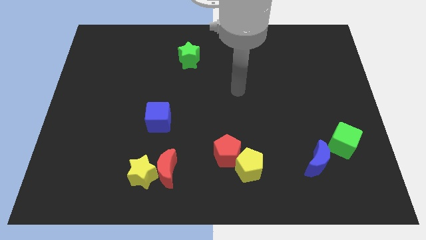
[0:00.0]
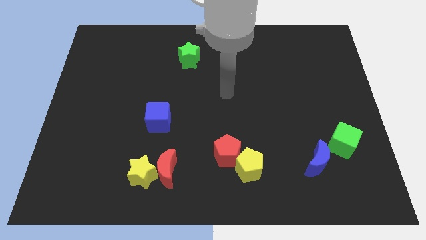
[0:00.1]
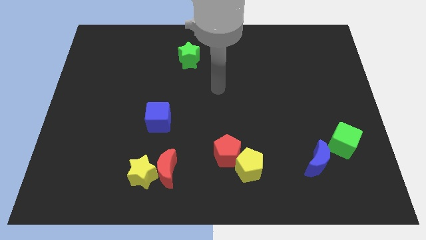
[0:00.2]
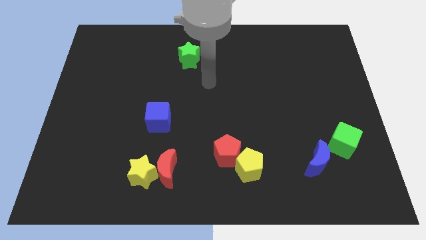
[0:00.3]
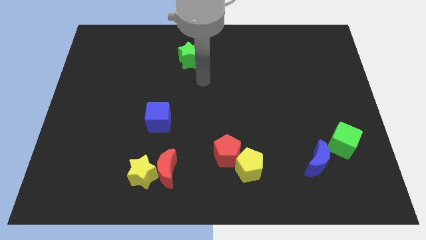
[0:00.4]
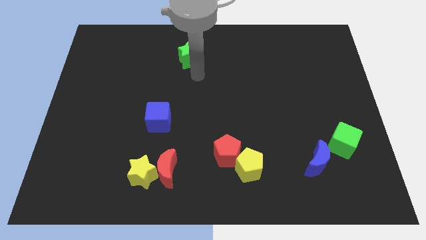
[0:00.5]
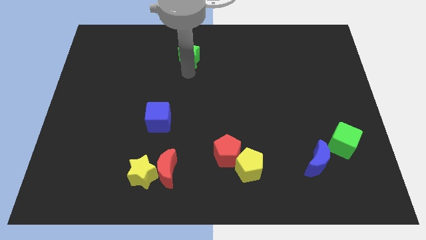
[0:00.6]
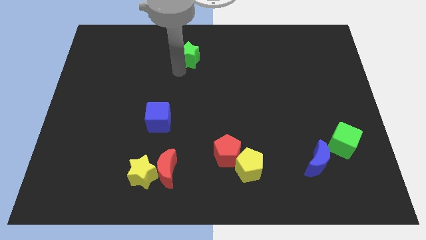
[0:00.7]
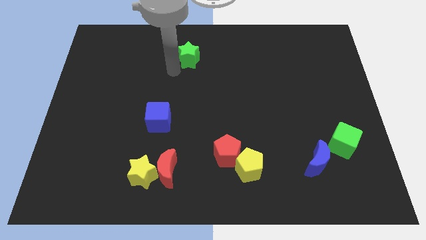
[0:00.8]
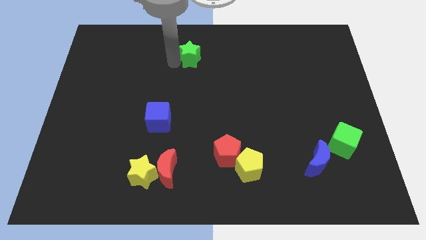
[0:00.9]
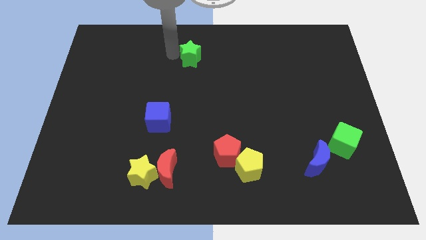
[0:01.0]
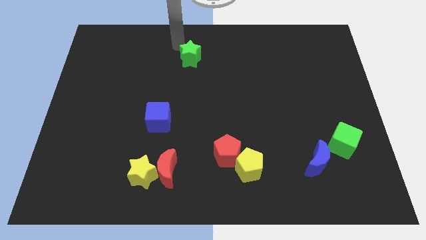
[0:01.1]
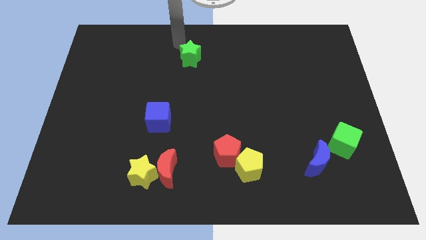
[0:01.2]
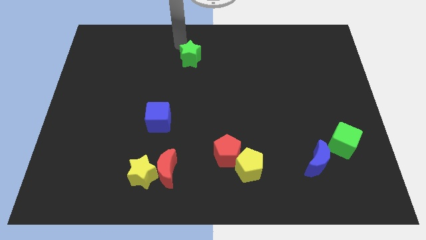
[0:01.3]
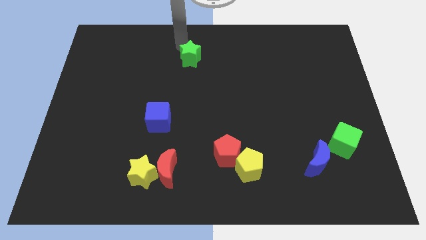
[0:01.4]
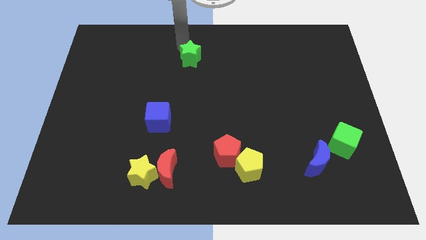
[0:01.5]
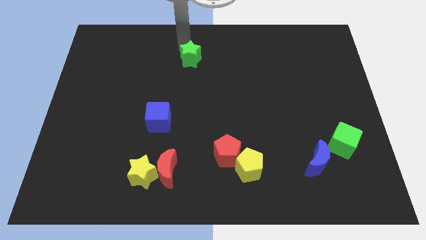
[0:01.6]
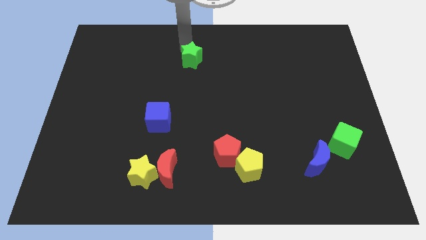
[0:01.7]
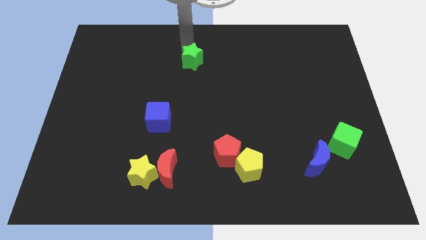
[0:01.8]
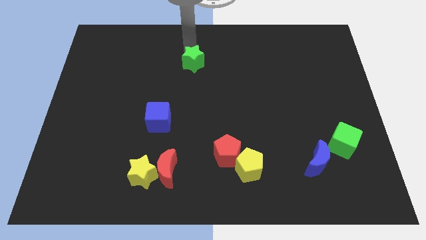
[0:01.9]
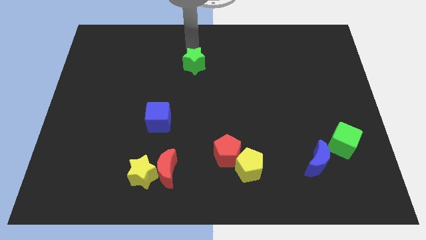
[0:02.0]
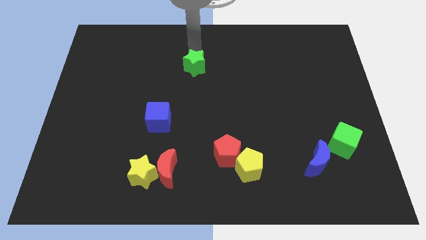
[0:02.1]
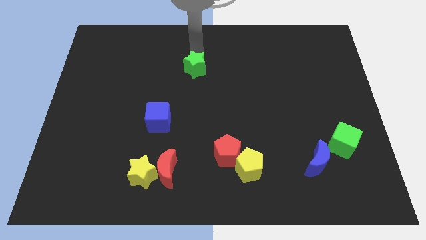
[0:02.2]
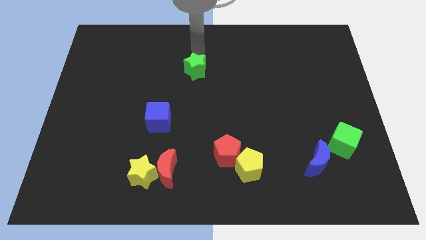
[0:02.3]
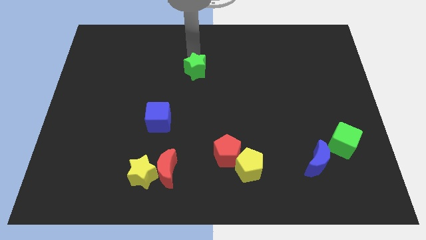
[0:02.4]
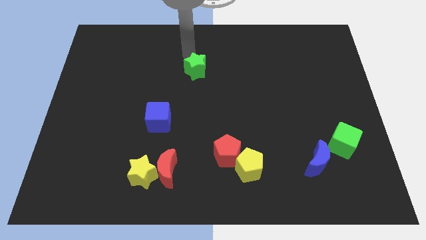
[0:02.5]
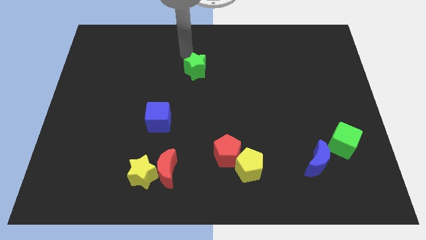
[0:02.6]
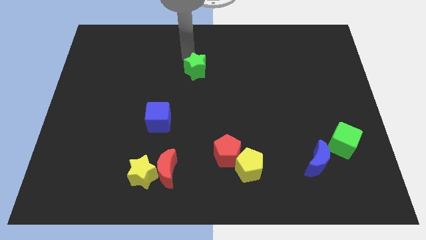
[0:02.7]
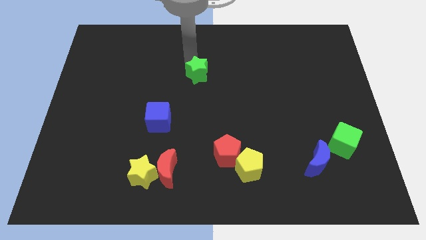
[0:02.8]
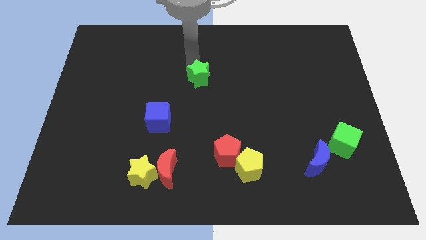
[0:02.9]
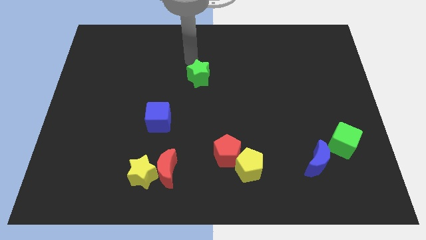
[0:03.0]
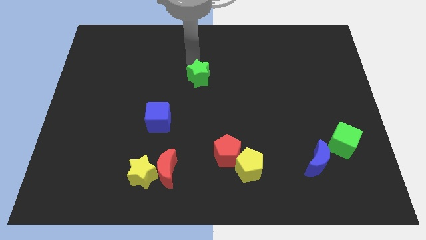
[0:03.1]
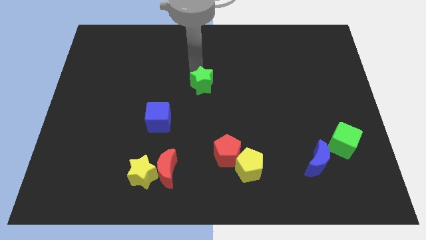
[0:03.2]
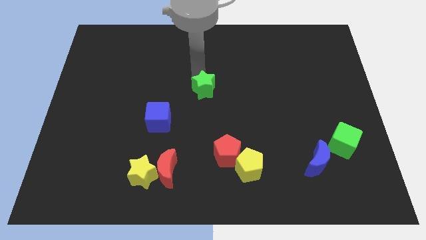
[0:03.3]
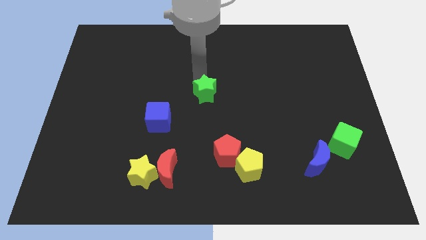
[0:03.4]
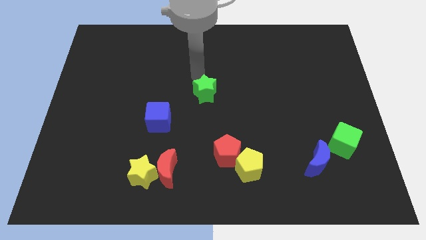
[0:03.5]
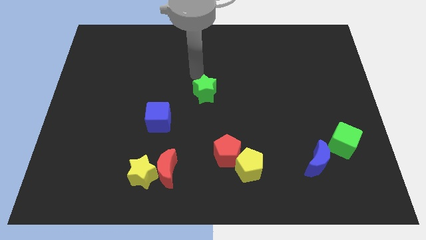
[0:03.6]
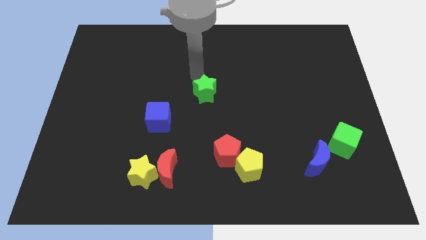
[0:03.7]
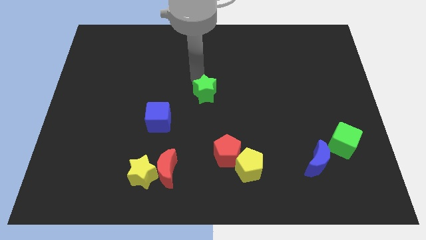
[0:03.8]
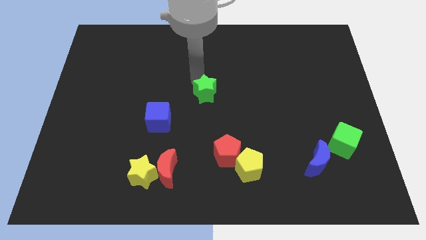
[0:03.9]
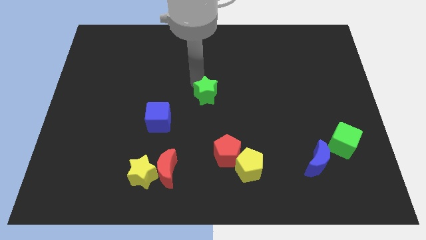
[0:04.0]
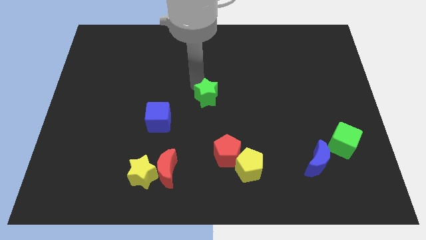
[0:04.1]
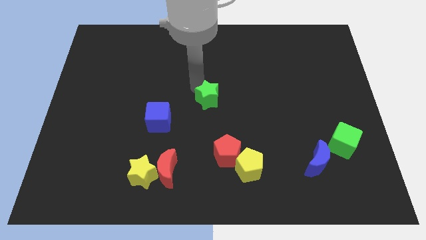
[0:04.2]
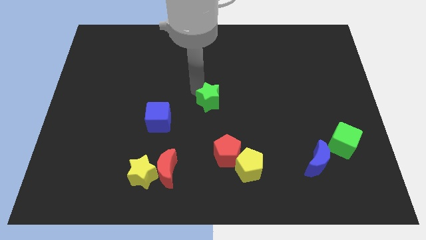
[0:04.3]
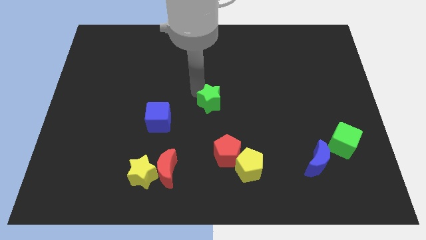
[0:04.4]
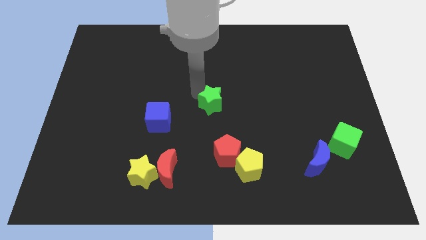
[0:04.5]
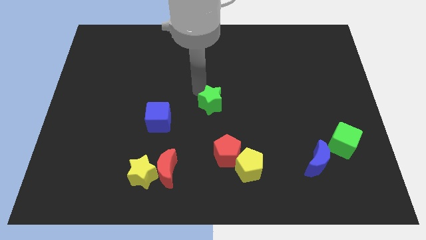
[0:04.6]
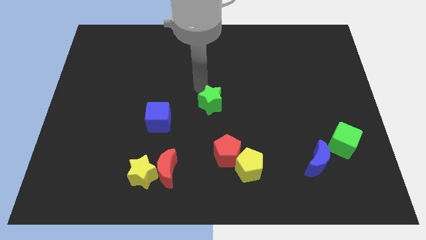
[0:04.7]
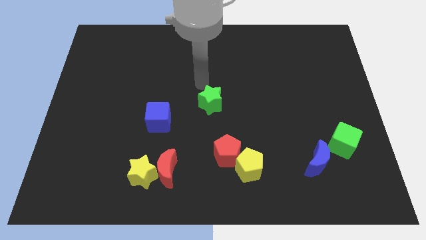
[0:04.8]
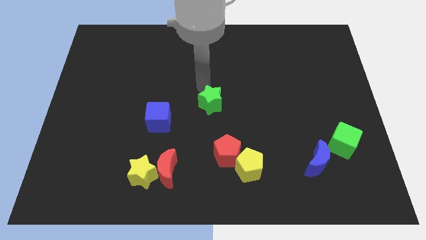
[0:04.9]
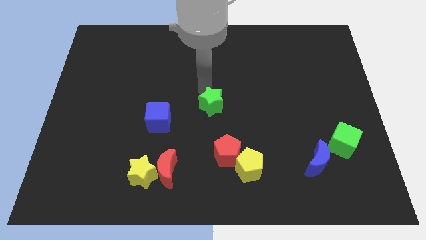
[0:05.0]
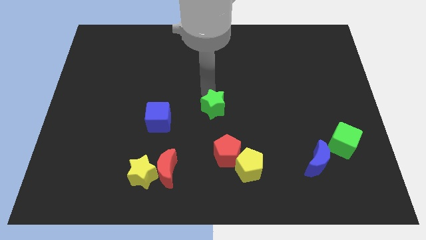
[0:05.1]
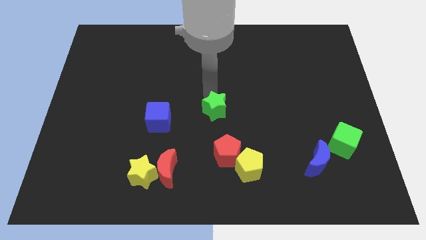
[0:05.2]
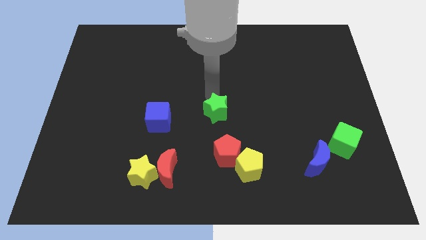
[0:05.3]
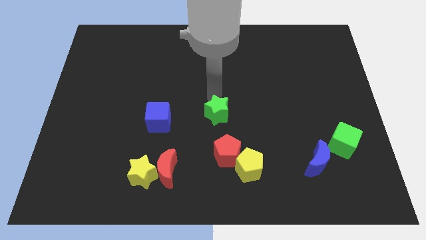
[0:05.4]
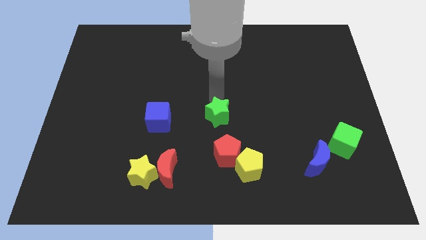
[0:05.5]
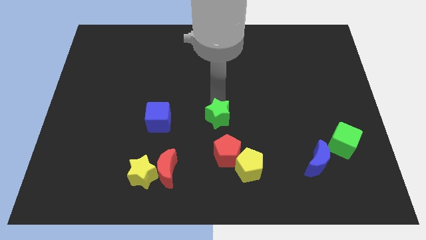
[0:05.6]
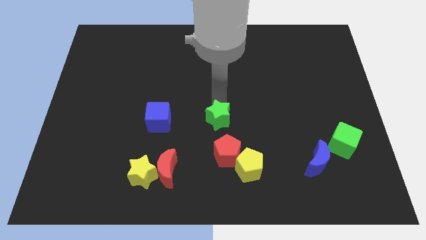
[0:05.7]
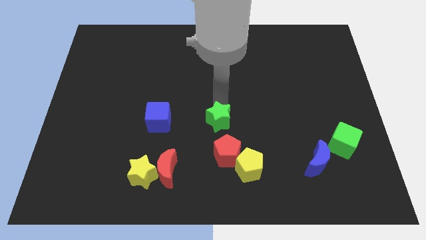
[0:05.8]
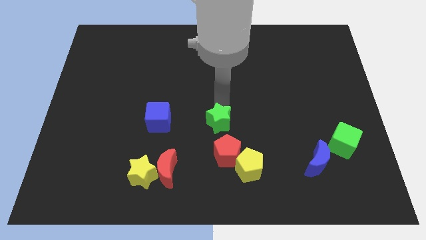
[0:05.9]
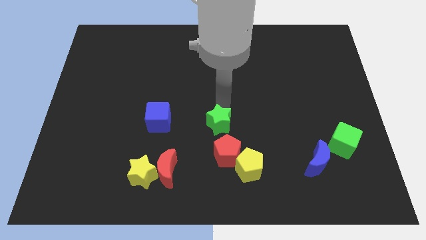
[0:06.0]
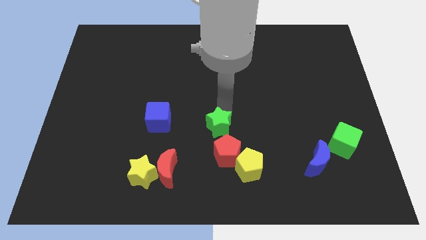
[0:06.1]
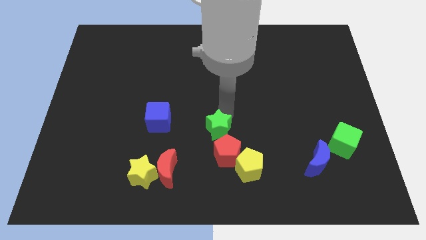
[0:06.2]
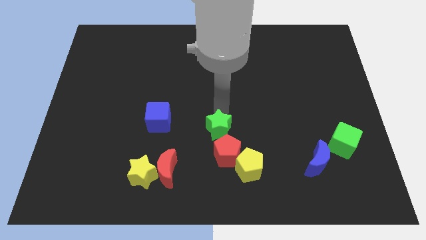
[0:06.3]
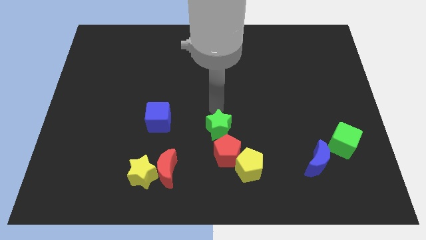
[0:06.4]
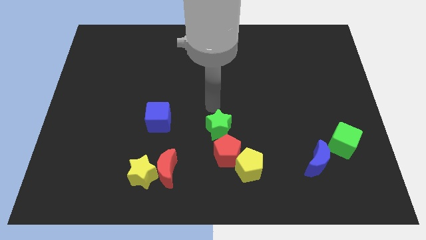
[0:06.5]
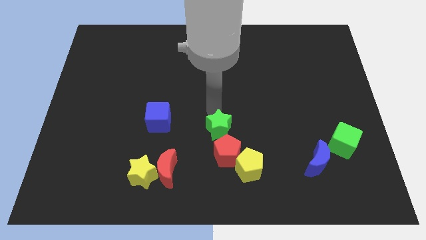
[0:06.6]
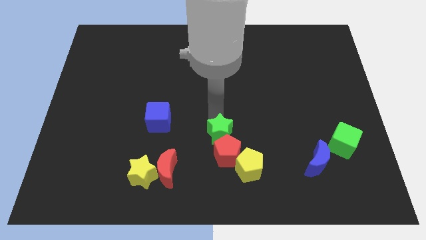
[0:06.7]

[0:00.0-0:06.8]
push the green star close to the red pentagon

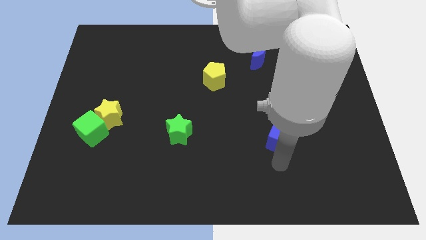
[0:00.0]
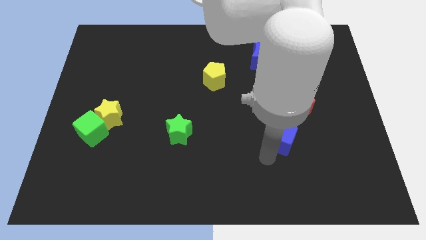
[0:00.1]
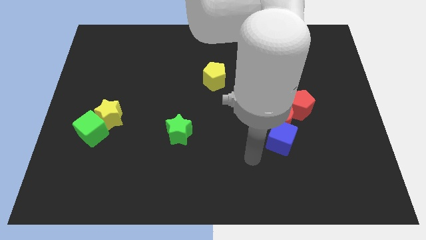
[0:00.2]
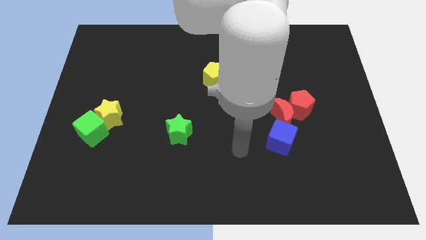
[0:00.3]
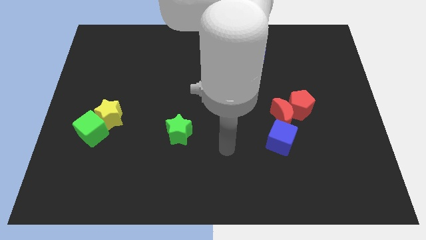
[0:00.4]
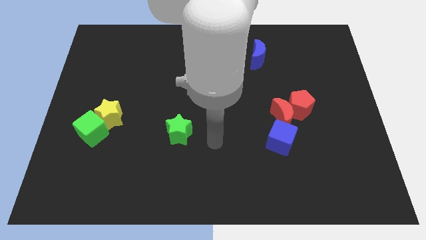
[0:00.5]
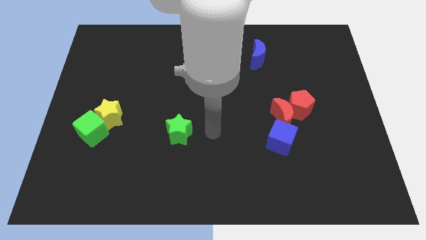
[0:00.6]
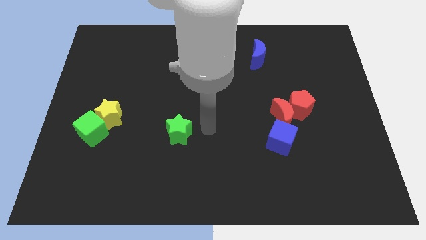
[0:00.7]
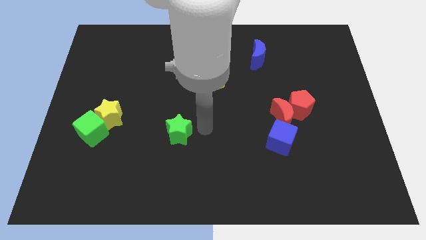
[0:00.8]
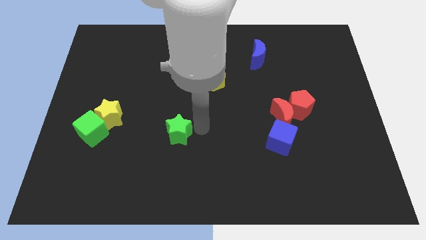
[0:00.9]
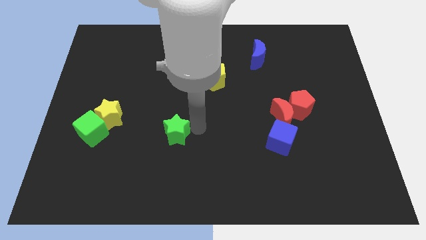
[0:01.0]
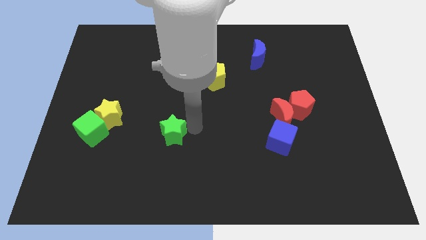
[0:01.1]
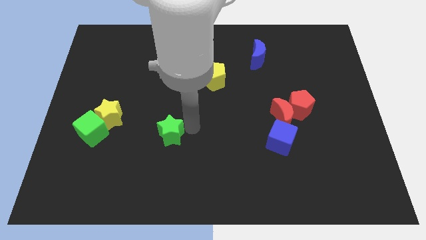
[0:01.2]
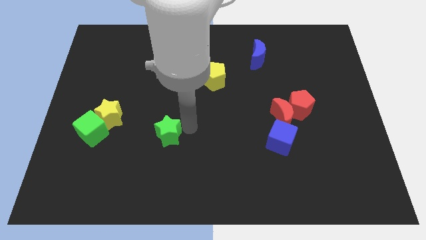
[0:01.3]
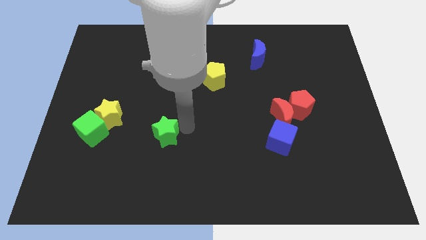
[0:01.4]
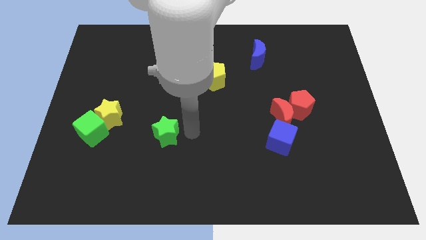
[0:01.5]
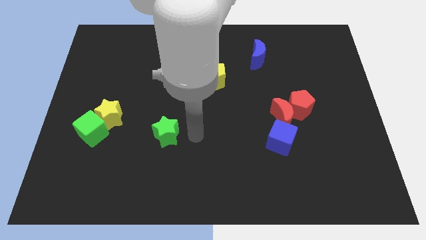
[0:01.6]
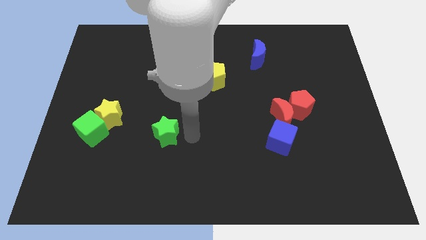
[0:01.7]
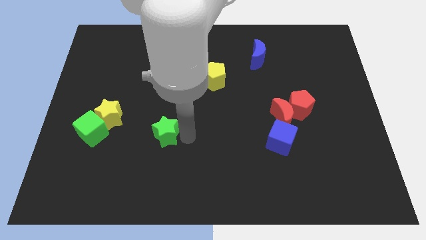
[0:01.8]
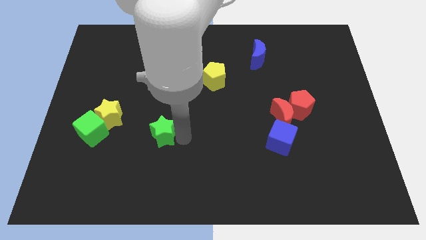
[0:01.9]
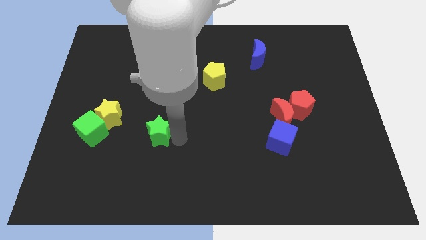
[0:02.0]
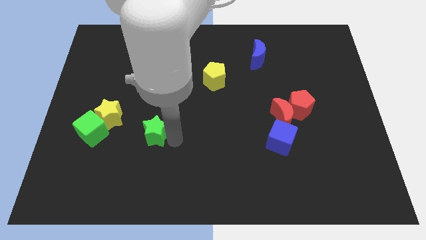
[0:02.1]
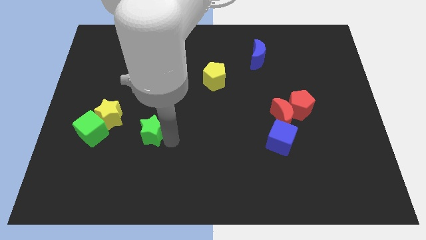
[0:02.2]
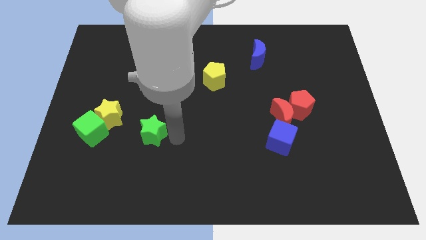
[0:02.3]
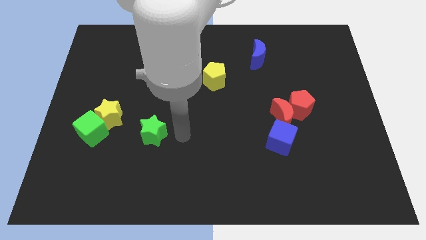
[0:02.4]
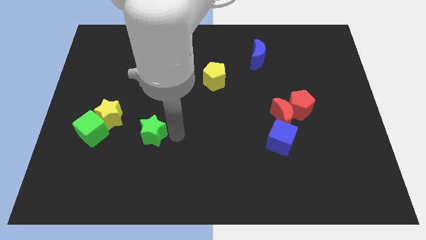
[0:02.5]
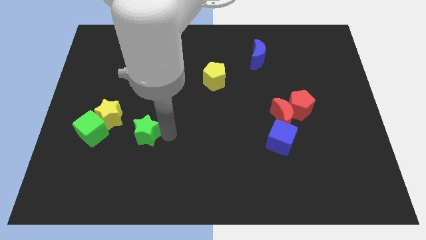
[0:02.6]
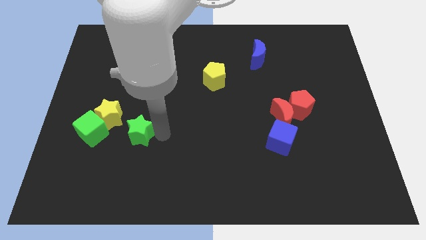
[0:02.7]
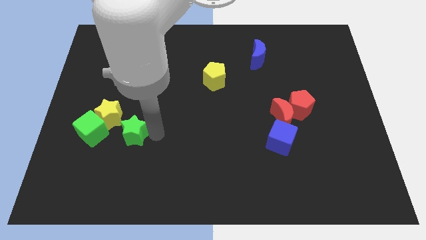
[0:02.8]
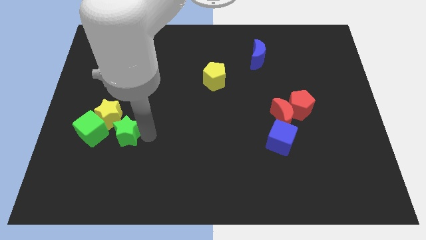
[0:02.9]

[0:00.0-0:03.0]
put the green star towards the yellow star
